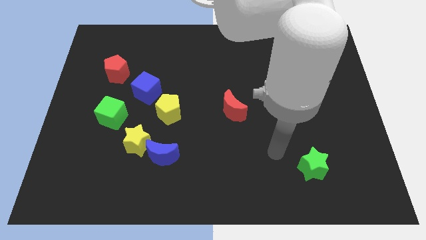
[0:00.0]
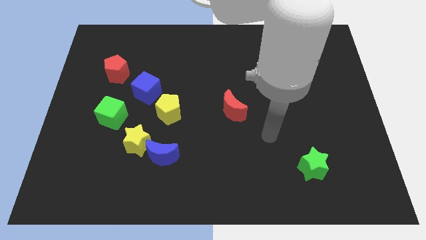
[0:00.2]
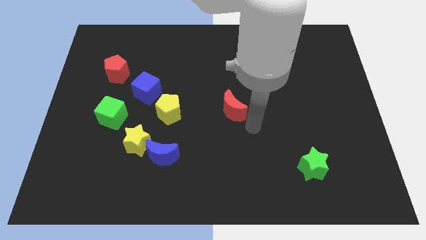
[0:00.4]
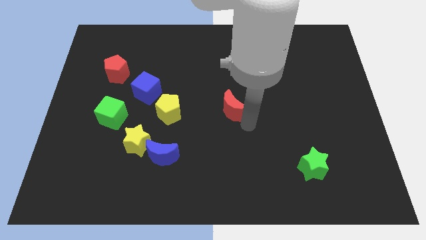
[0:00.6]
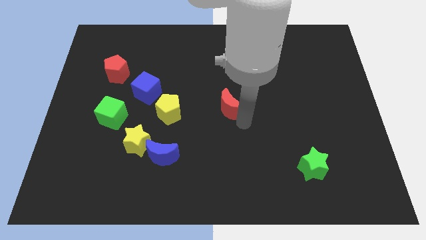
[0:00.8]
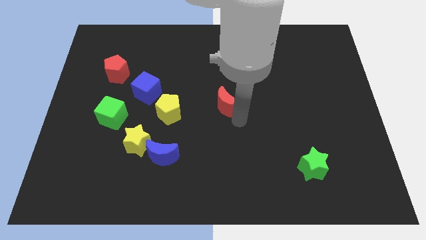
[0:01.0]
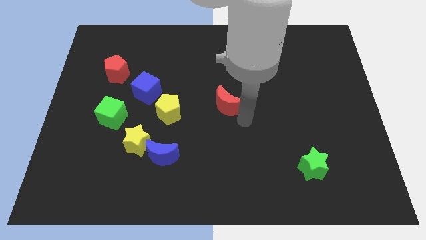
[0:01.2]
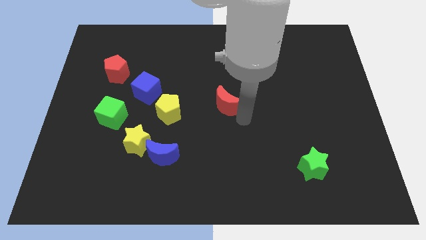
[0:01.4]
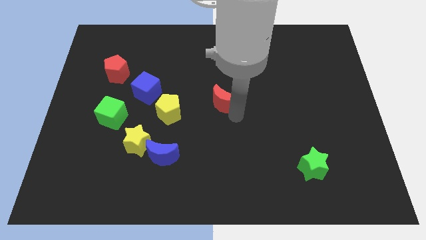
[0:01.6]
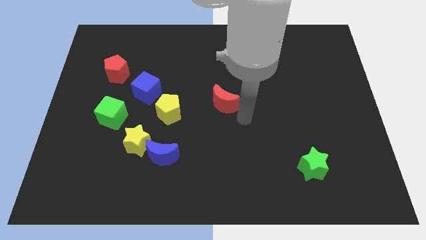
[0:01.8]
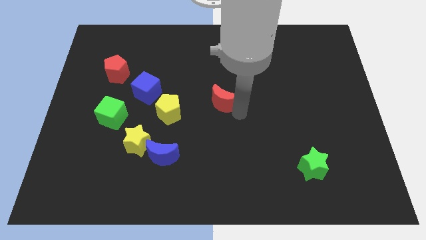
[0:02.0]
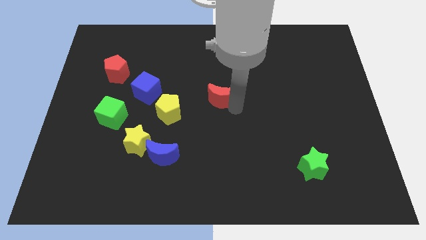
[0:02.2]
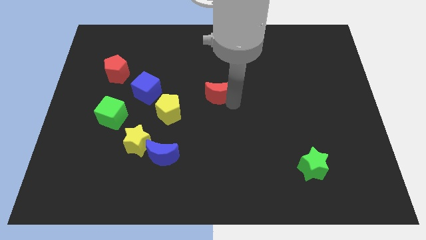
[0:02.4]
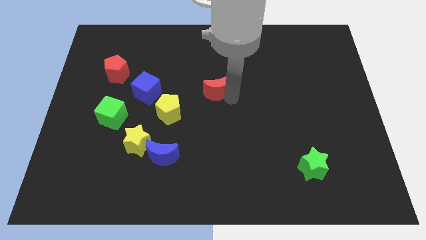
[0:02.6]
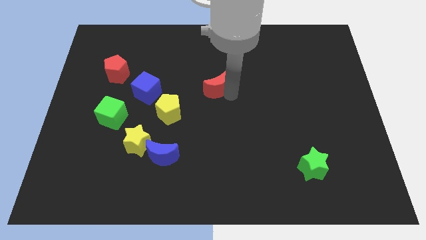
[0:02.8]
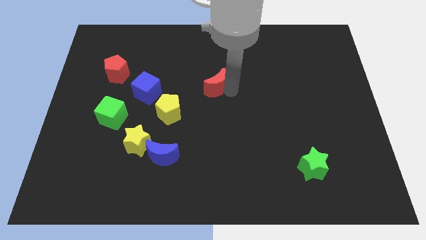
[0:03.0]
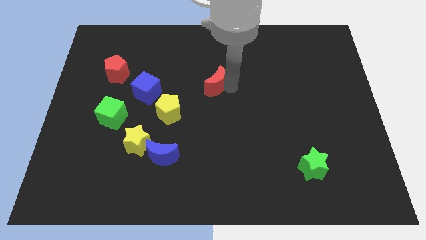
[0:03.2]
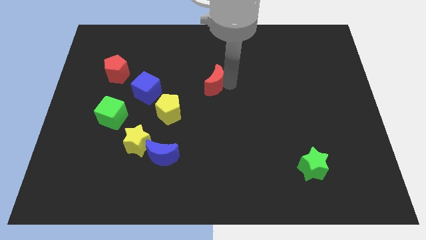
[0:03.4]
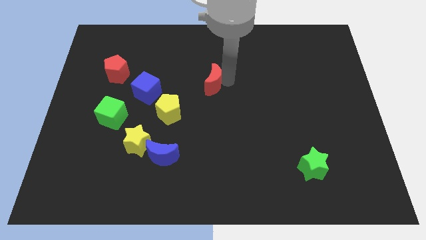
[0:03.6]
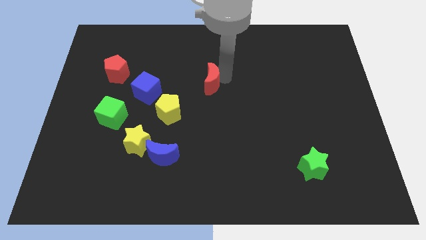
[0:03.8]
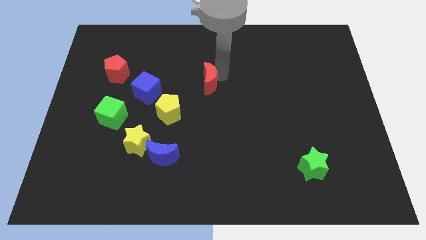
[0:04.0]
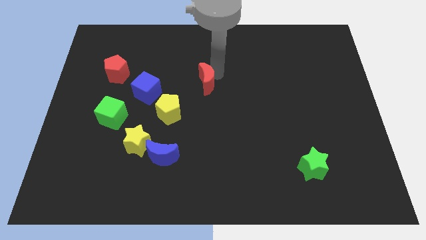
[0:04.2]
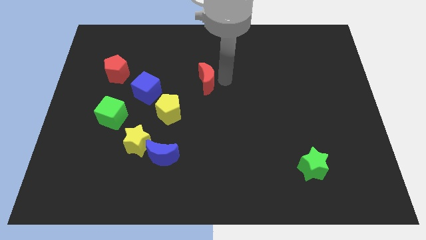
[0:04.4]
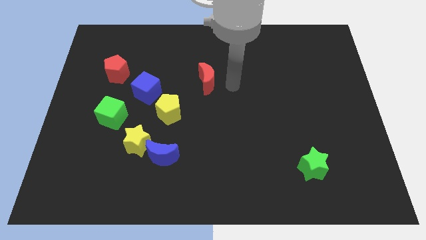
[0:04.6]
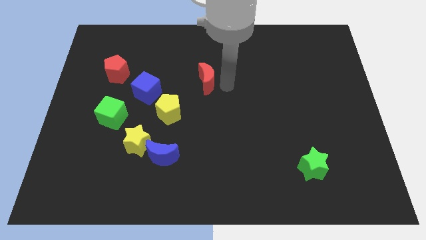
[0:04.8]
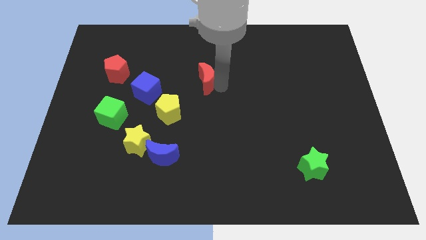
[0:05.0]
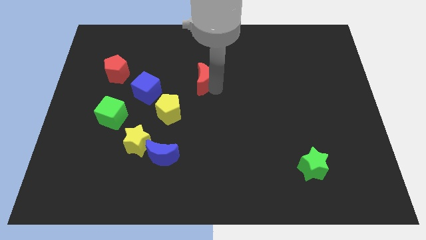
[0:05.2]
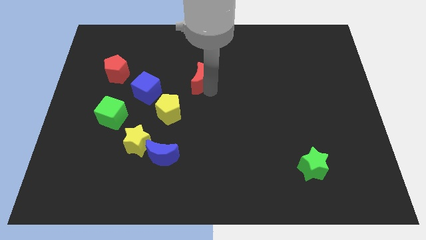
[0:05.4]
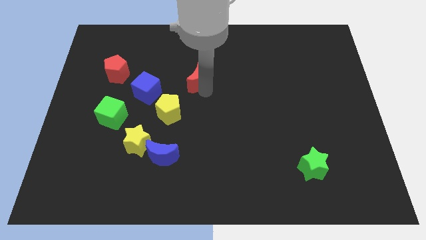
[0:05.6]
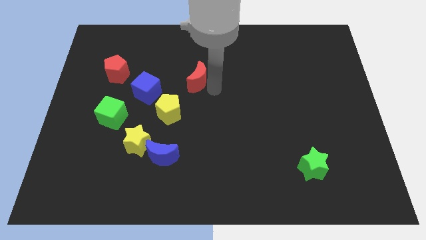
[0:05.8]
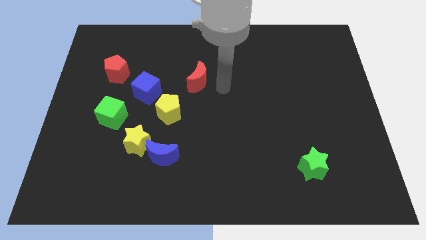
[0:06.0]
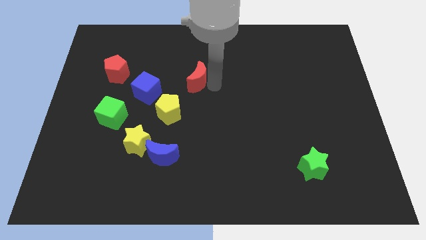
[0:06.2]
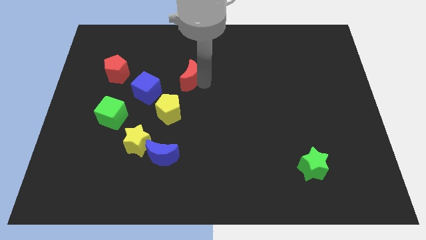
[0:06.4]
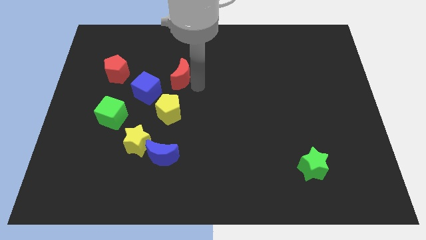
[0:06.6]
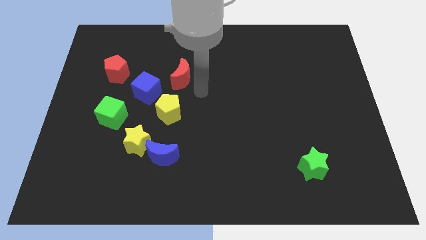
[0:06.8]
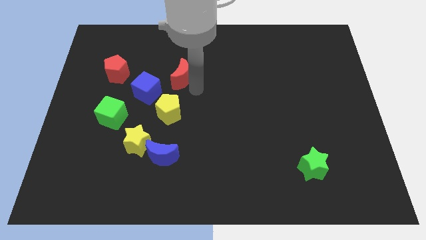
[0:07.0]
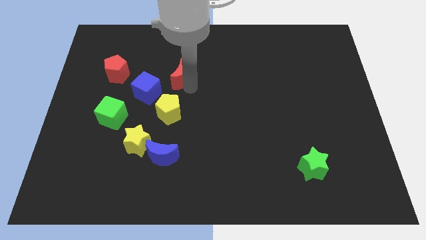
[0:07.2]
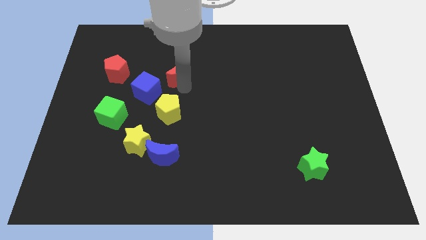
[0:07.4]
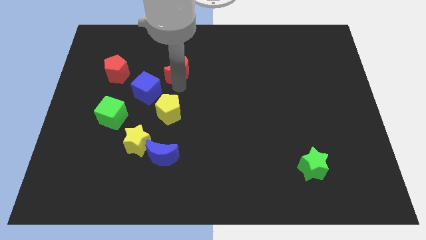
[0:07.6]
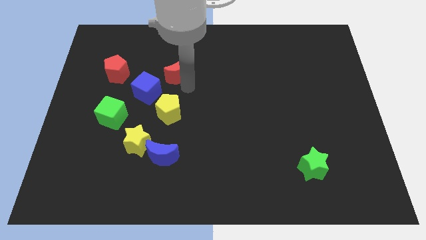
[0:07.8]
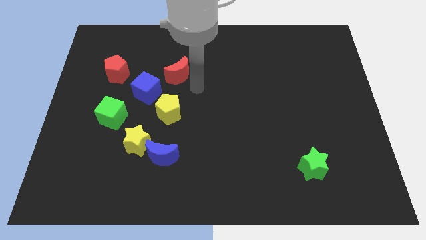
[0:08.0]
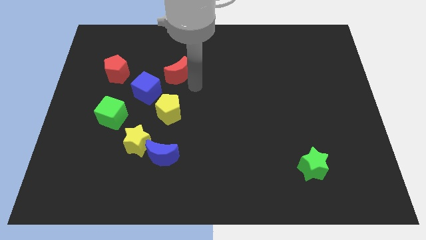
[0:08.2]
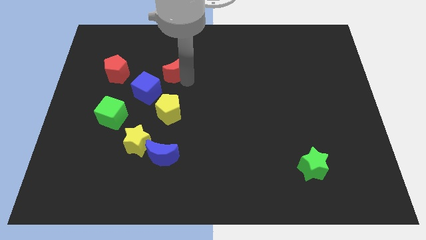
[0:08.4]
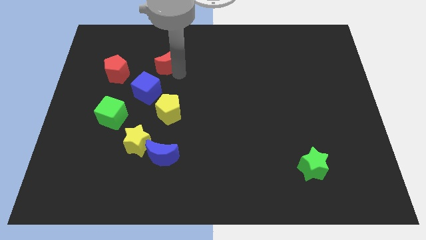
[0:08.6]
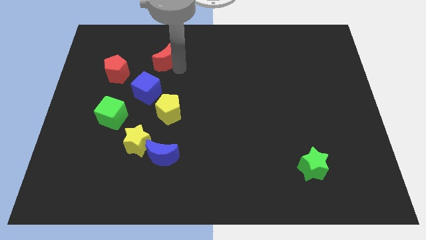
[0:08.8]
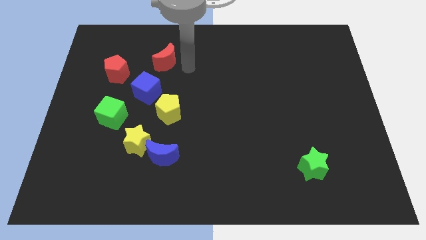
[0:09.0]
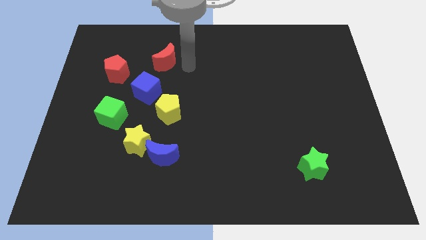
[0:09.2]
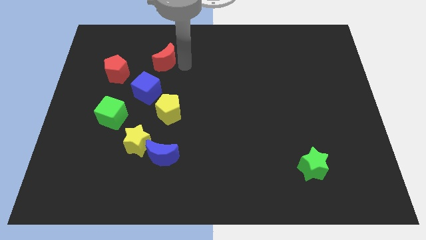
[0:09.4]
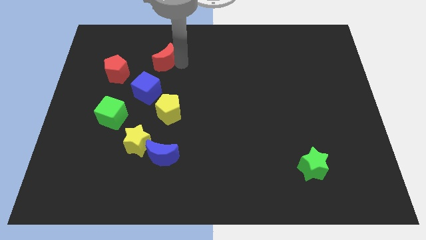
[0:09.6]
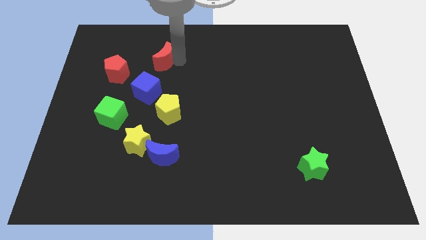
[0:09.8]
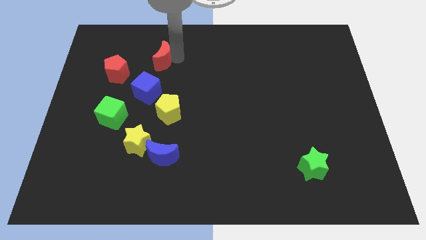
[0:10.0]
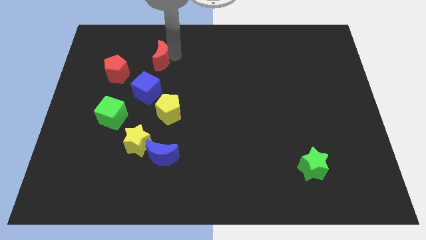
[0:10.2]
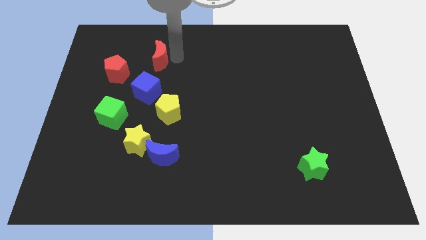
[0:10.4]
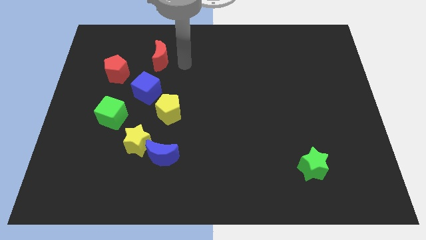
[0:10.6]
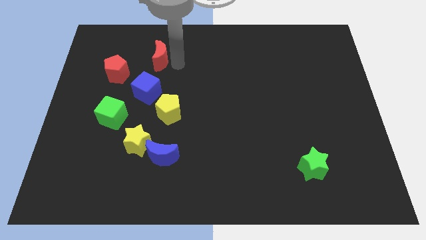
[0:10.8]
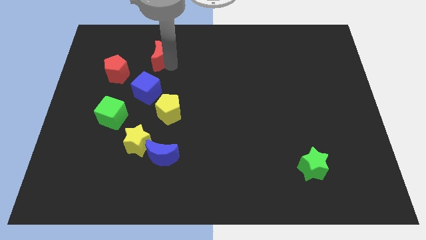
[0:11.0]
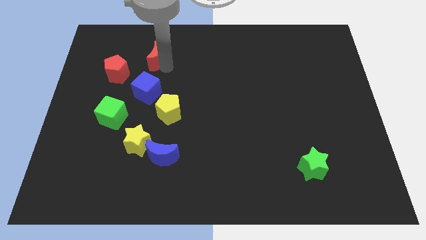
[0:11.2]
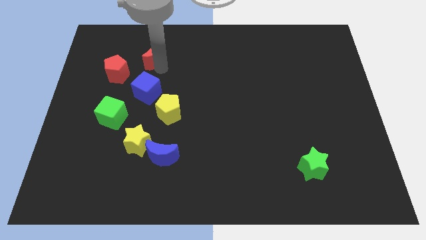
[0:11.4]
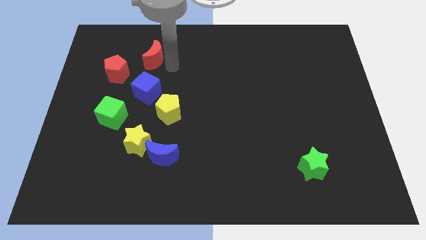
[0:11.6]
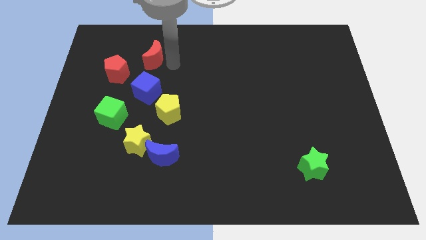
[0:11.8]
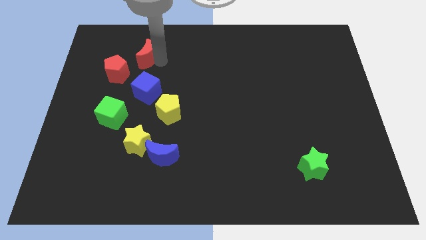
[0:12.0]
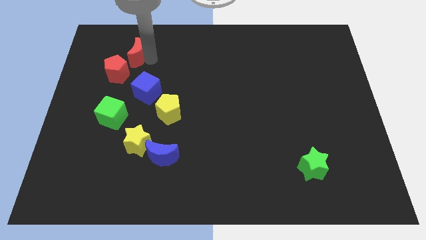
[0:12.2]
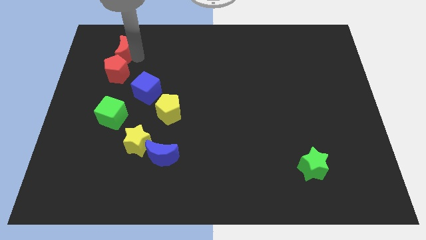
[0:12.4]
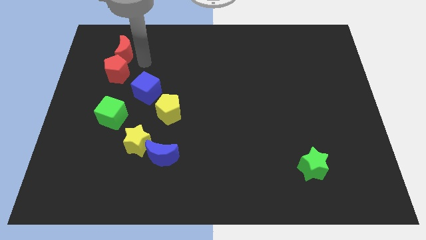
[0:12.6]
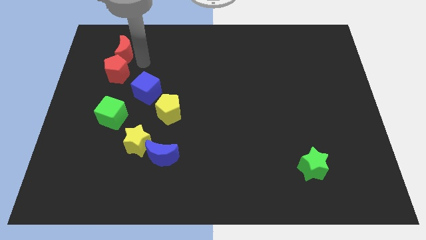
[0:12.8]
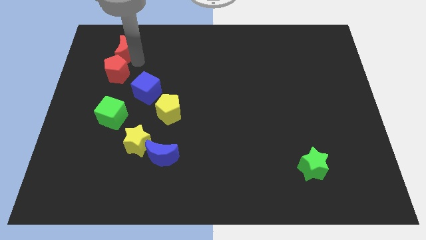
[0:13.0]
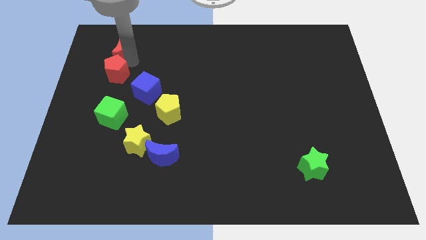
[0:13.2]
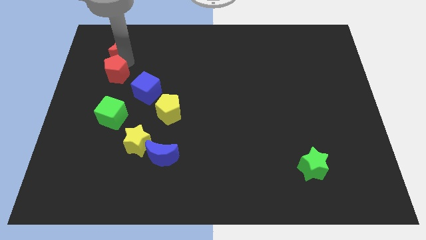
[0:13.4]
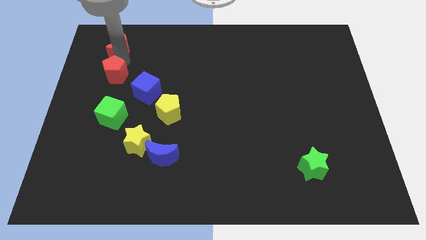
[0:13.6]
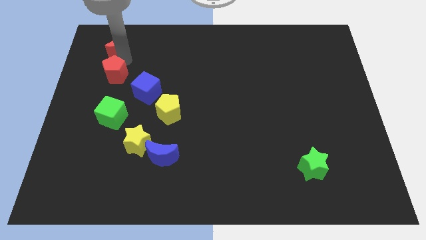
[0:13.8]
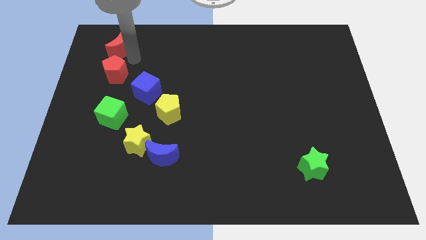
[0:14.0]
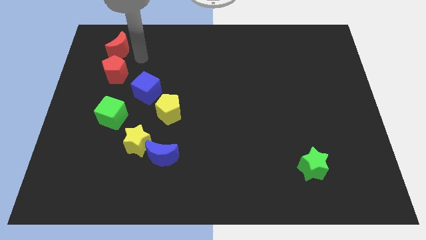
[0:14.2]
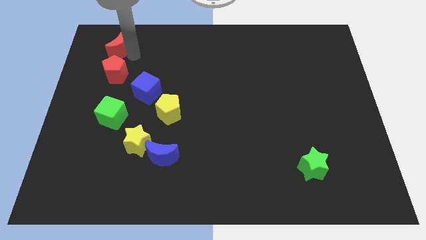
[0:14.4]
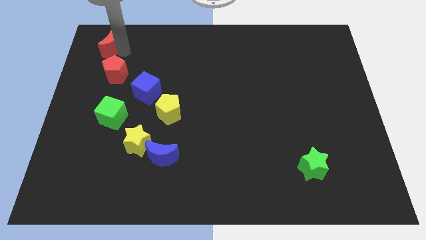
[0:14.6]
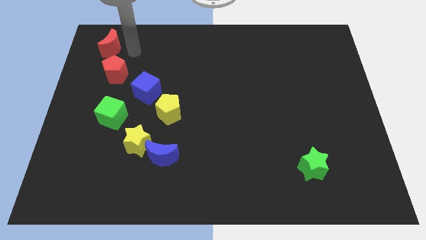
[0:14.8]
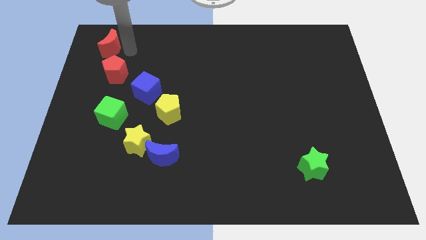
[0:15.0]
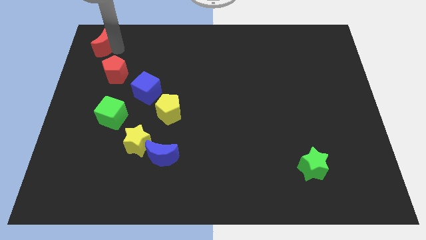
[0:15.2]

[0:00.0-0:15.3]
push the red moon to the top left corner

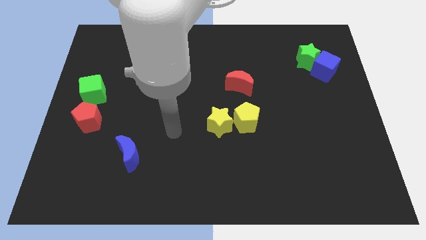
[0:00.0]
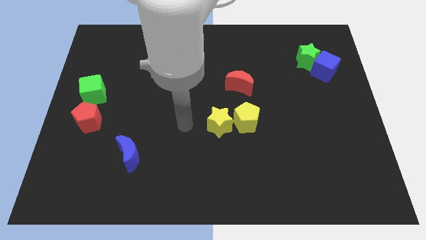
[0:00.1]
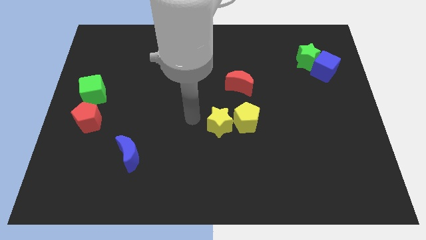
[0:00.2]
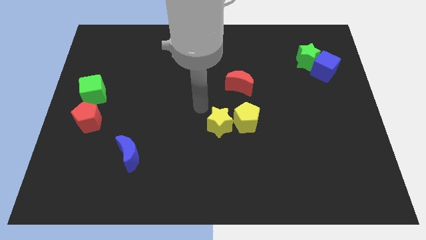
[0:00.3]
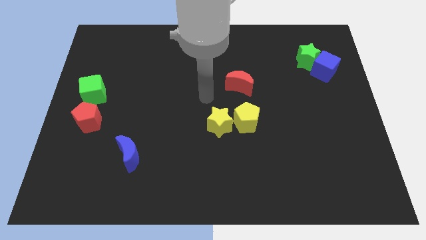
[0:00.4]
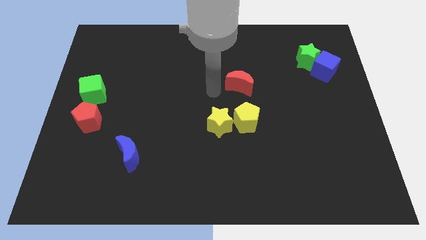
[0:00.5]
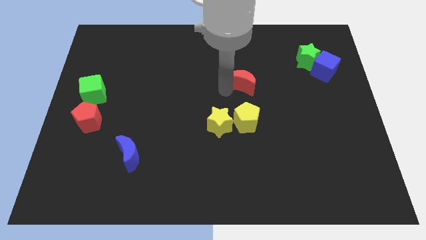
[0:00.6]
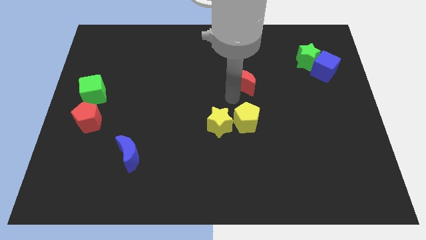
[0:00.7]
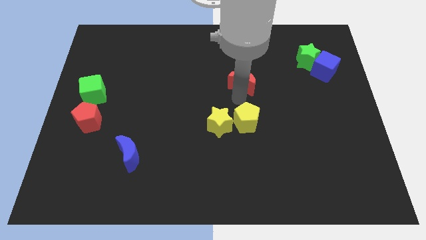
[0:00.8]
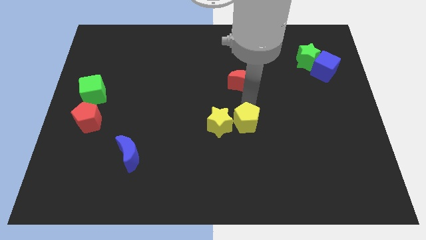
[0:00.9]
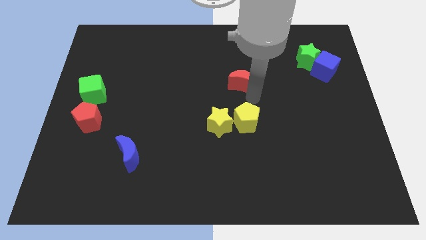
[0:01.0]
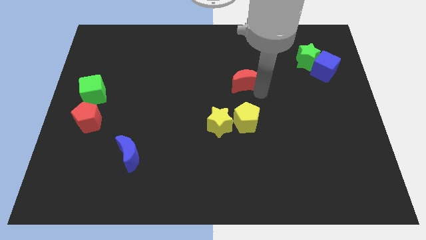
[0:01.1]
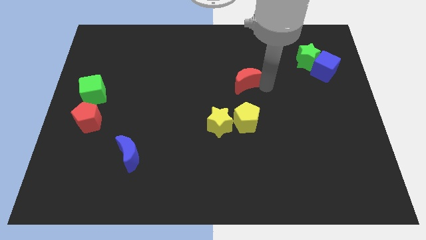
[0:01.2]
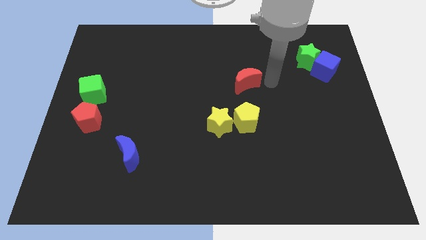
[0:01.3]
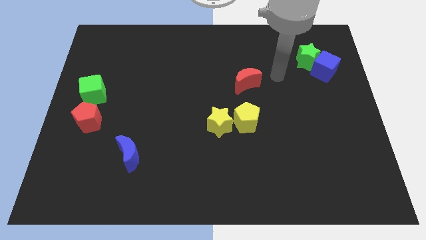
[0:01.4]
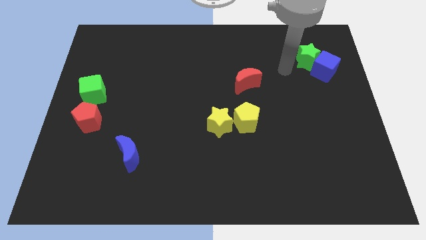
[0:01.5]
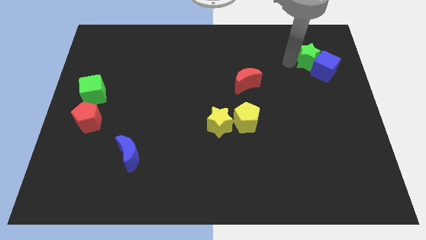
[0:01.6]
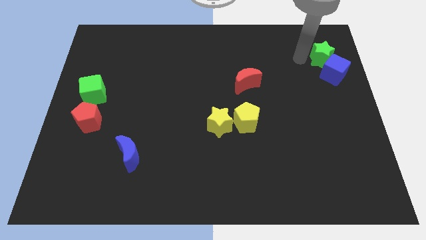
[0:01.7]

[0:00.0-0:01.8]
push the blue cube to the center right
